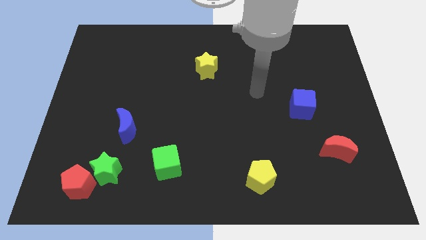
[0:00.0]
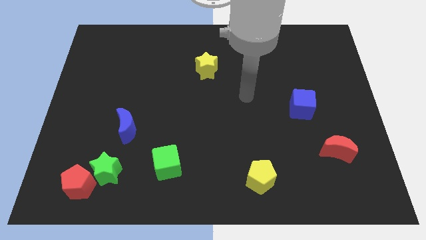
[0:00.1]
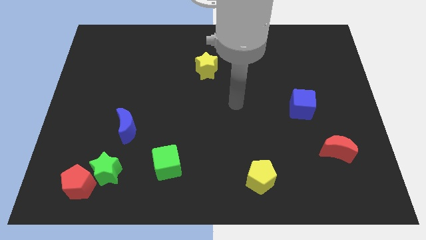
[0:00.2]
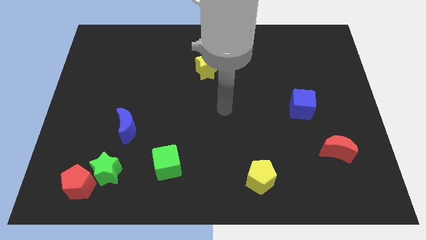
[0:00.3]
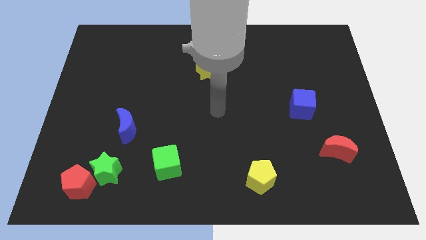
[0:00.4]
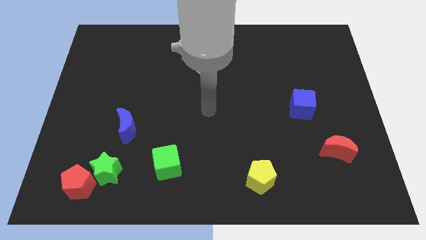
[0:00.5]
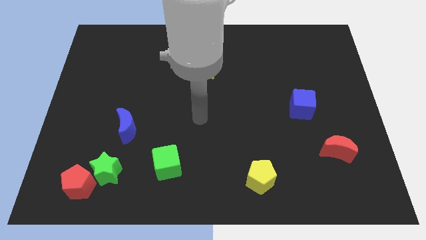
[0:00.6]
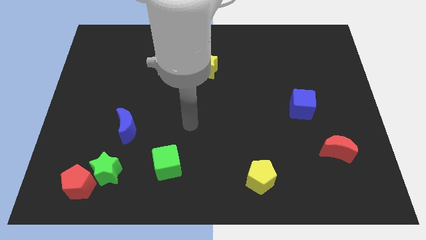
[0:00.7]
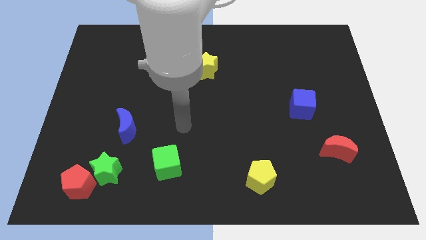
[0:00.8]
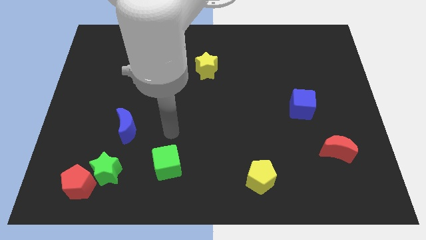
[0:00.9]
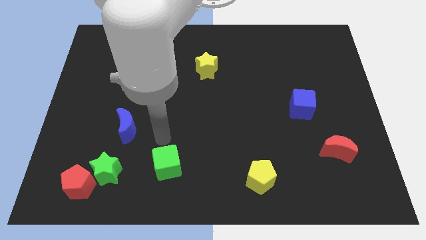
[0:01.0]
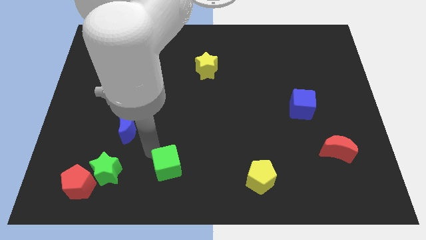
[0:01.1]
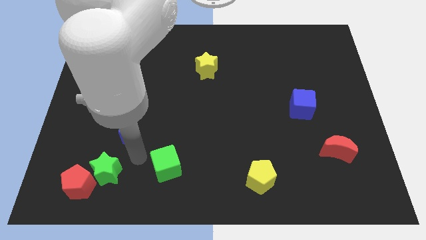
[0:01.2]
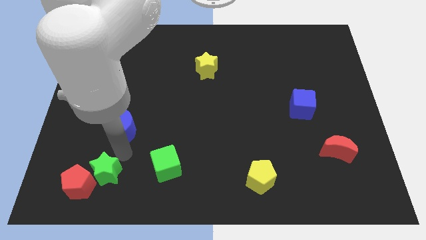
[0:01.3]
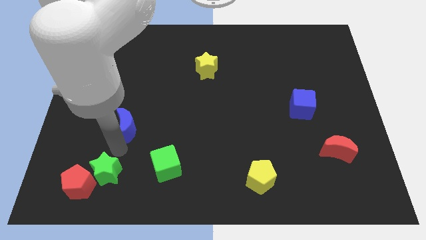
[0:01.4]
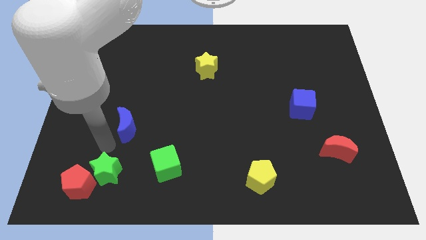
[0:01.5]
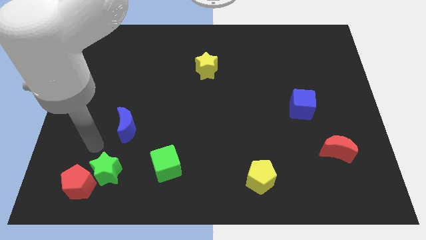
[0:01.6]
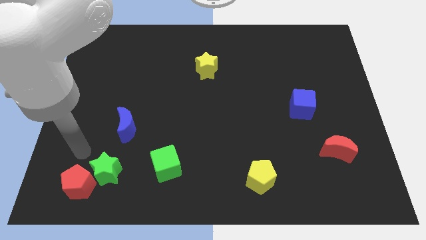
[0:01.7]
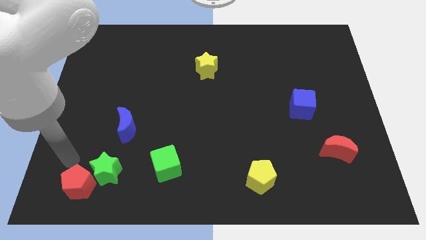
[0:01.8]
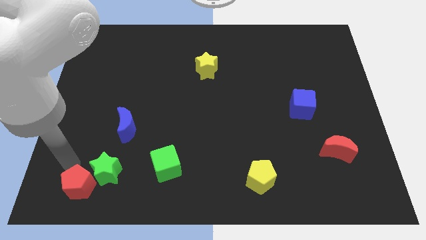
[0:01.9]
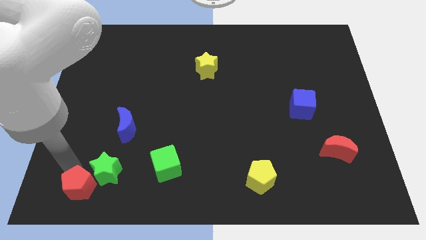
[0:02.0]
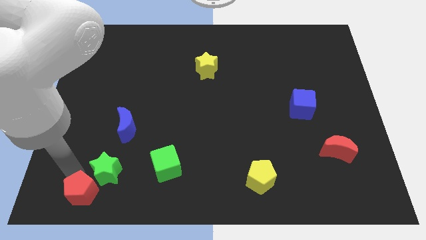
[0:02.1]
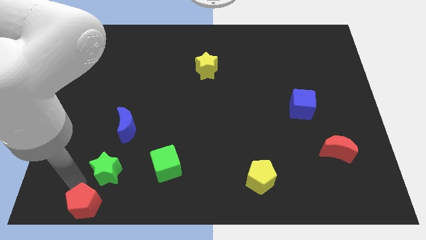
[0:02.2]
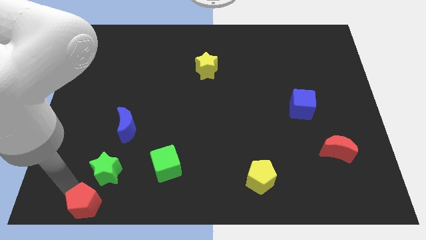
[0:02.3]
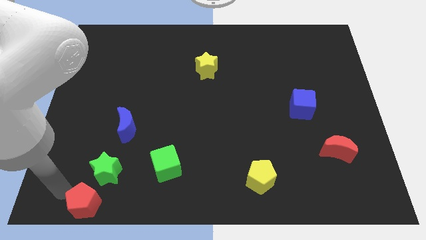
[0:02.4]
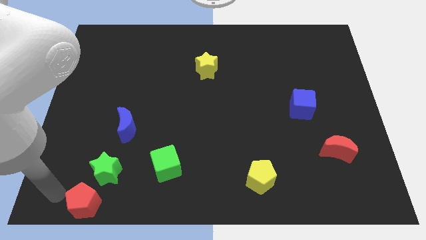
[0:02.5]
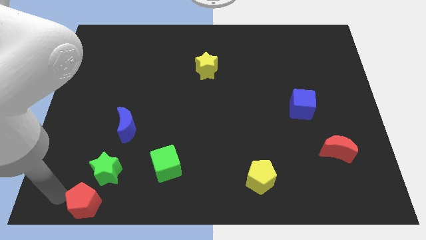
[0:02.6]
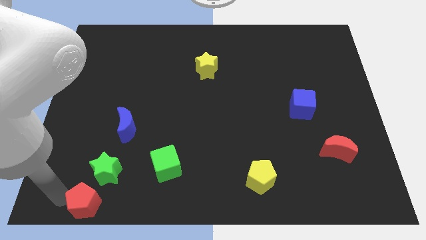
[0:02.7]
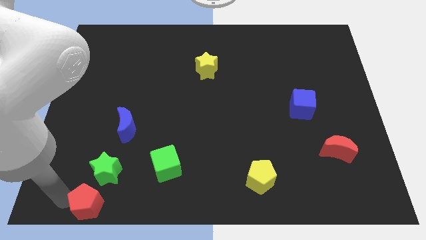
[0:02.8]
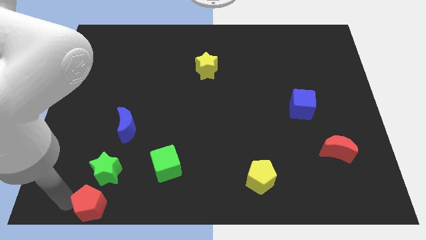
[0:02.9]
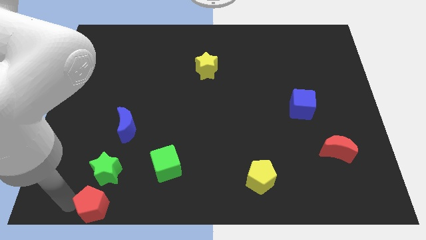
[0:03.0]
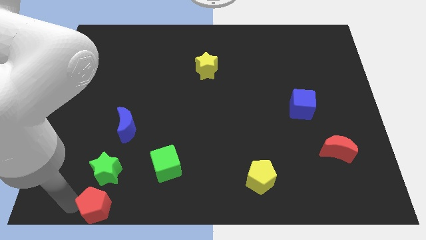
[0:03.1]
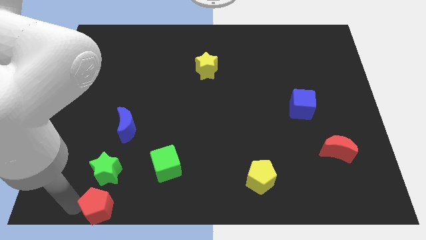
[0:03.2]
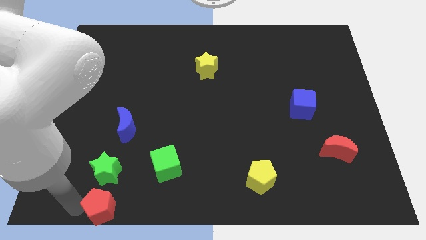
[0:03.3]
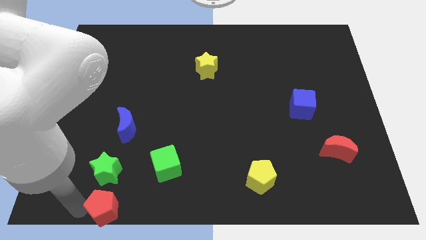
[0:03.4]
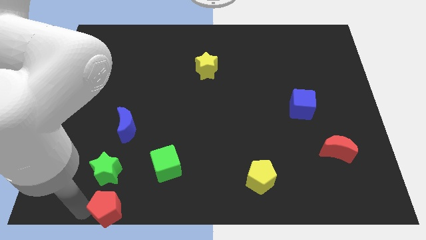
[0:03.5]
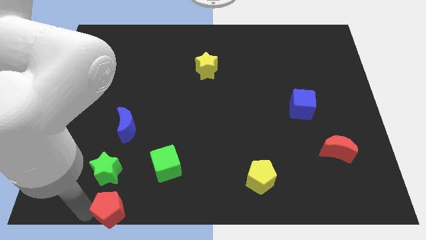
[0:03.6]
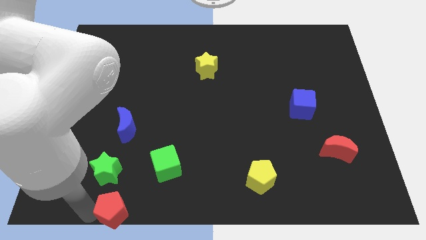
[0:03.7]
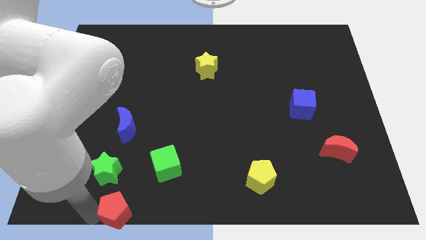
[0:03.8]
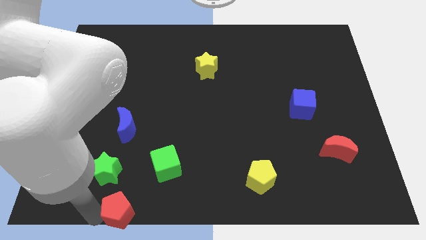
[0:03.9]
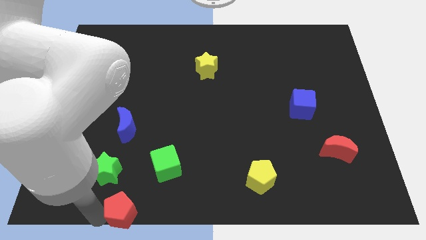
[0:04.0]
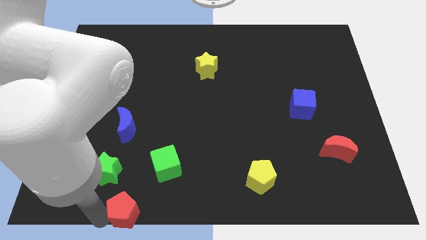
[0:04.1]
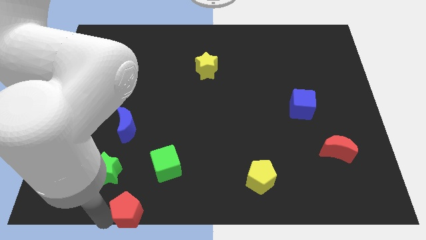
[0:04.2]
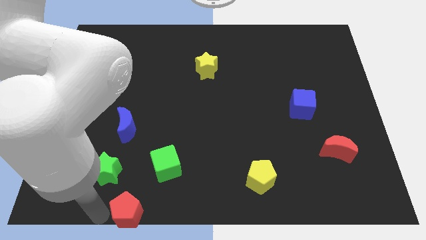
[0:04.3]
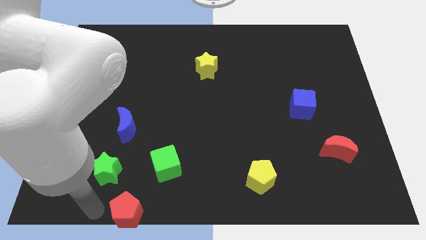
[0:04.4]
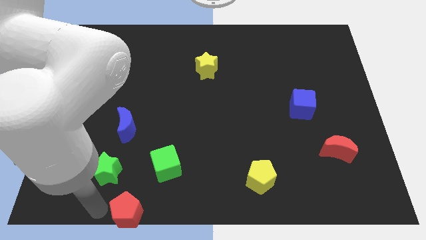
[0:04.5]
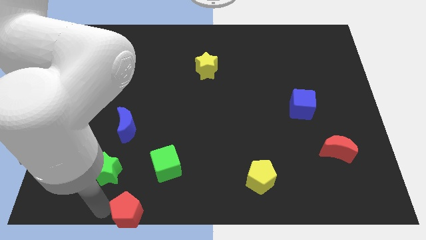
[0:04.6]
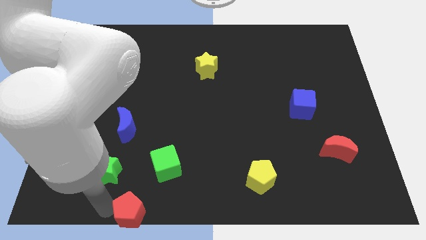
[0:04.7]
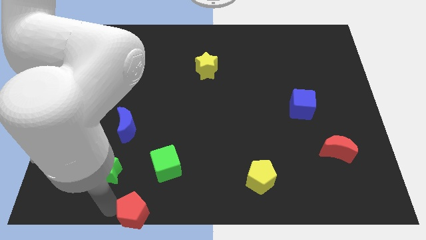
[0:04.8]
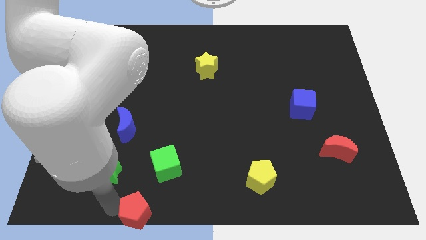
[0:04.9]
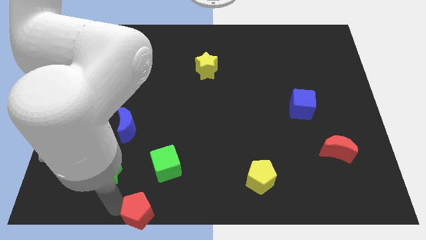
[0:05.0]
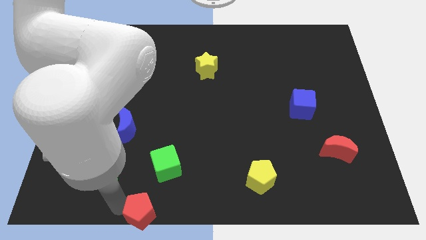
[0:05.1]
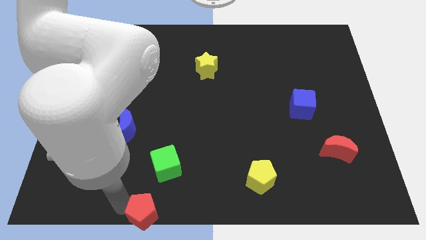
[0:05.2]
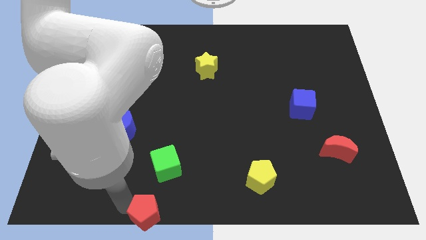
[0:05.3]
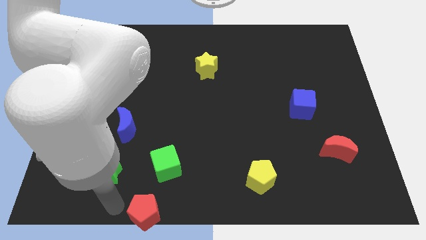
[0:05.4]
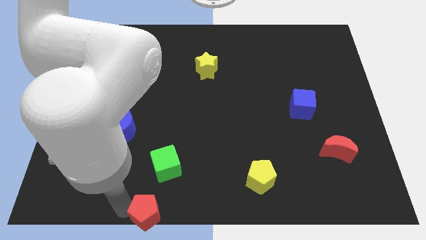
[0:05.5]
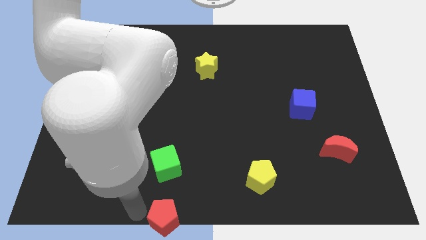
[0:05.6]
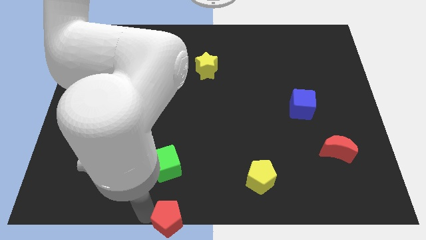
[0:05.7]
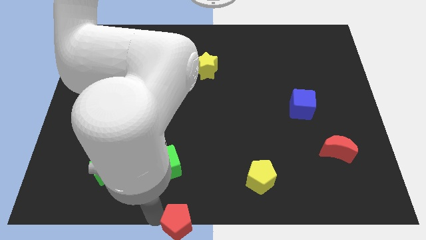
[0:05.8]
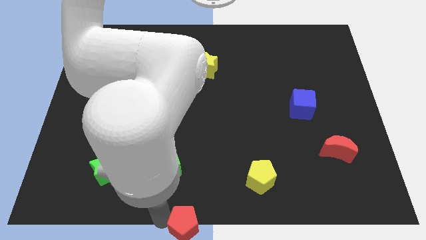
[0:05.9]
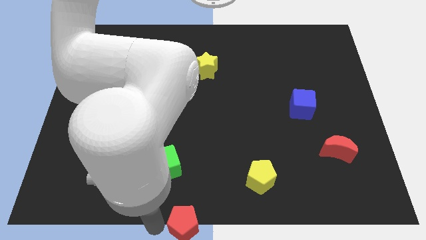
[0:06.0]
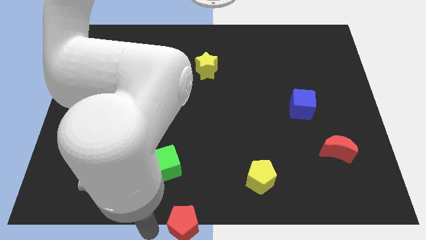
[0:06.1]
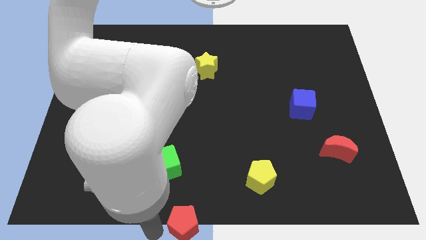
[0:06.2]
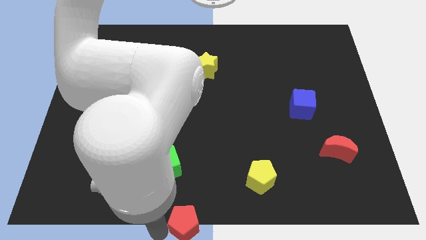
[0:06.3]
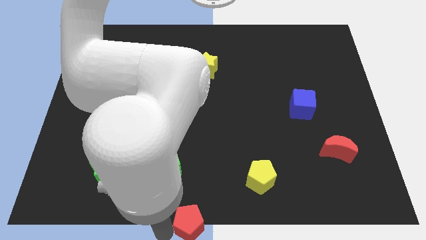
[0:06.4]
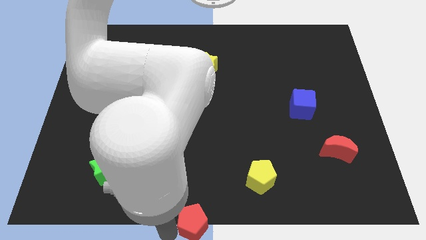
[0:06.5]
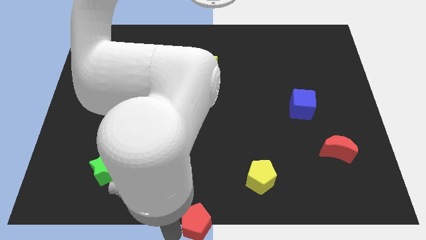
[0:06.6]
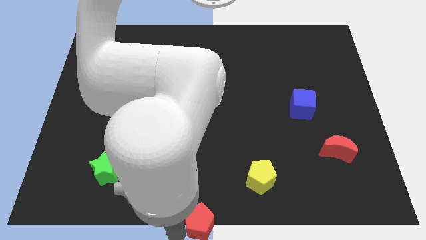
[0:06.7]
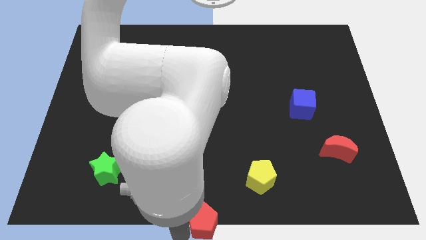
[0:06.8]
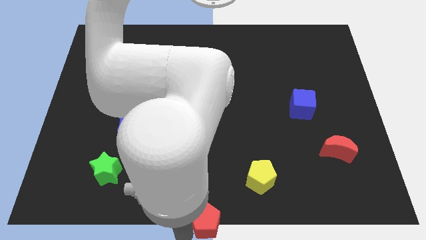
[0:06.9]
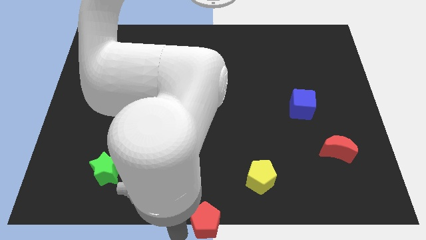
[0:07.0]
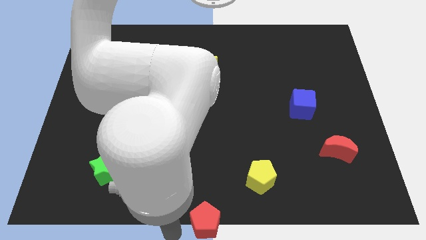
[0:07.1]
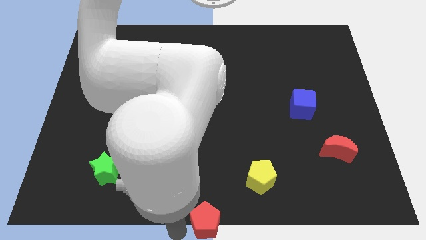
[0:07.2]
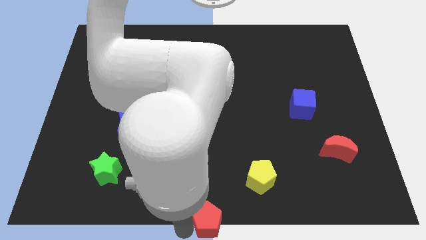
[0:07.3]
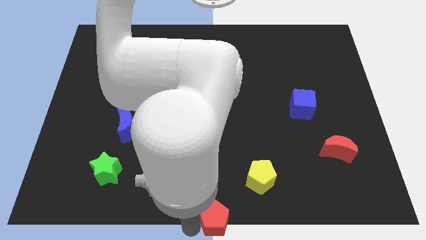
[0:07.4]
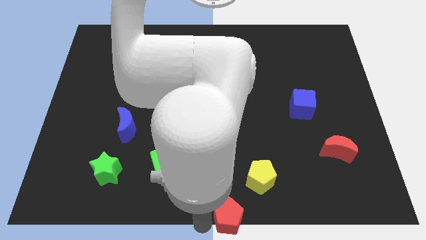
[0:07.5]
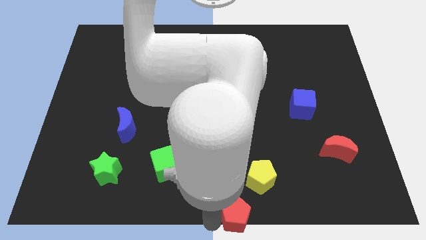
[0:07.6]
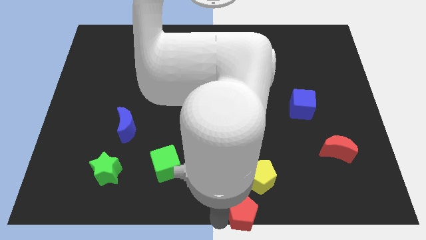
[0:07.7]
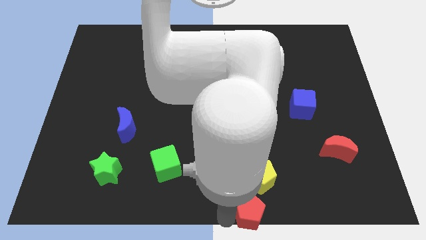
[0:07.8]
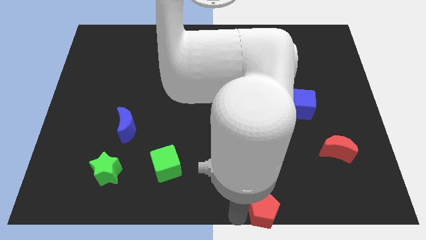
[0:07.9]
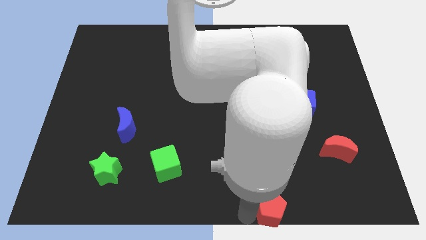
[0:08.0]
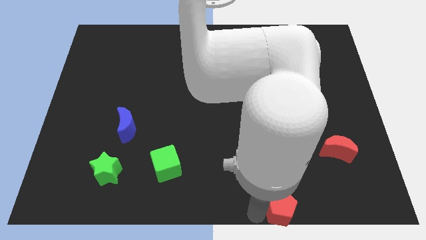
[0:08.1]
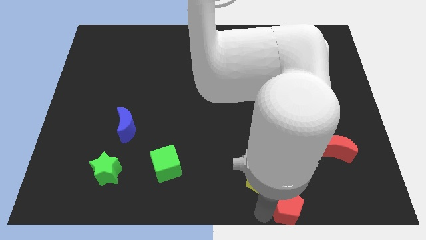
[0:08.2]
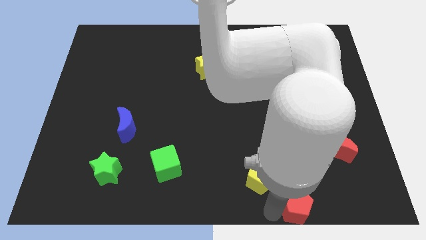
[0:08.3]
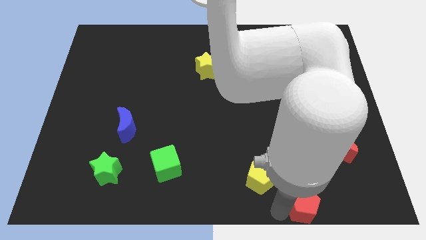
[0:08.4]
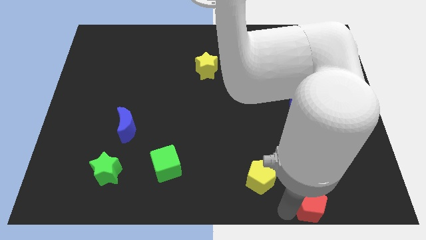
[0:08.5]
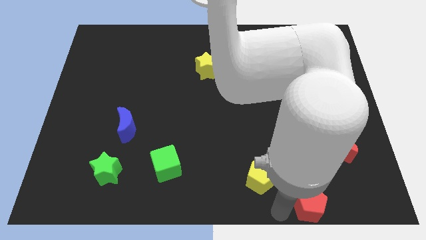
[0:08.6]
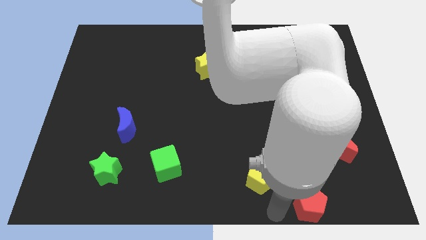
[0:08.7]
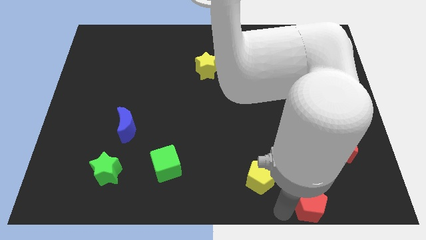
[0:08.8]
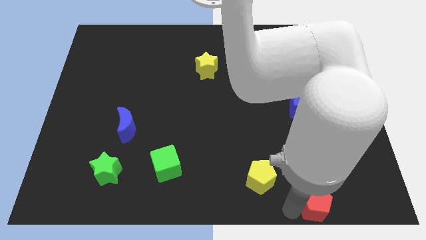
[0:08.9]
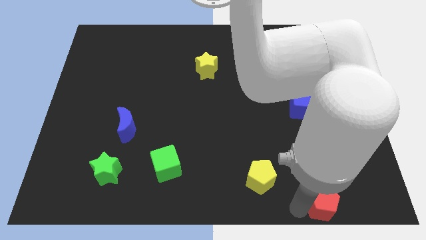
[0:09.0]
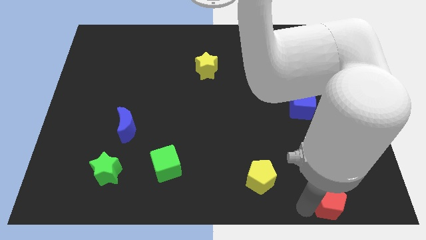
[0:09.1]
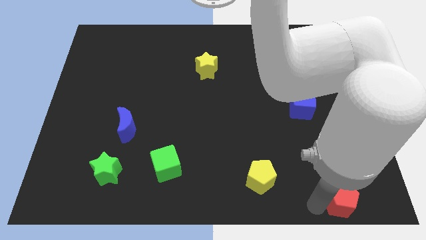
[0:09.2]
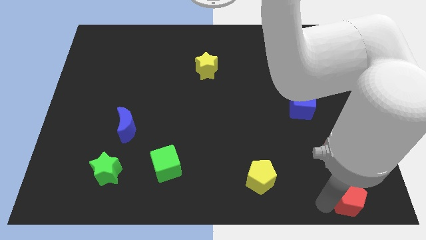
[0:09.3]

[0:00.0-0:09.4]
put the red pentagon to the bottom right corner
